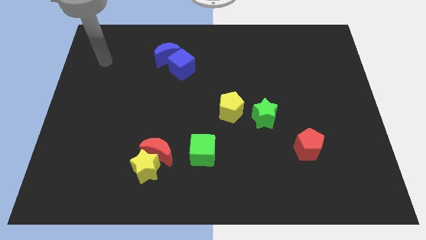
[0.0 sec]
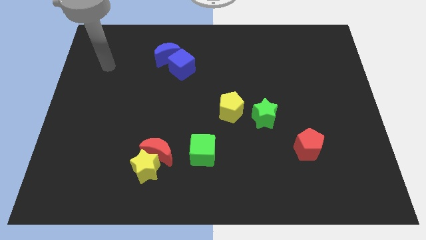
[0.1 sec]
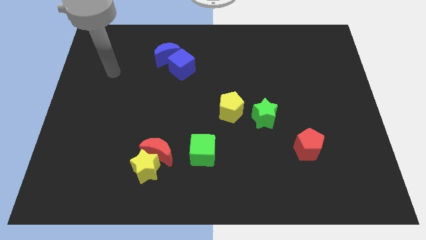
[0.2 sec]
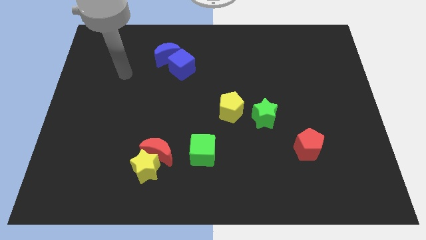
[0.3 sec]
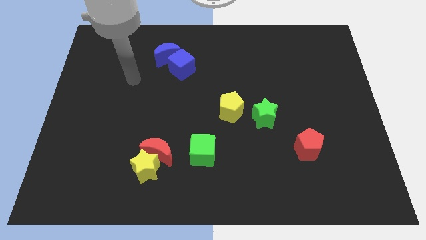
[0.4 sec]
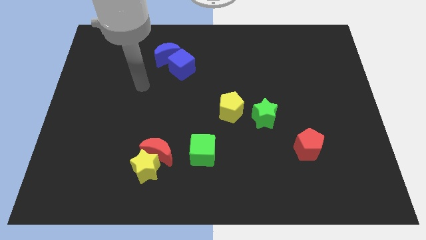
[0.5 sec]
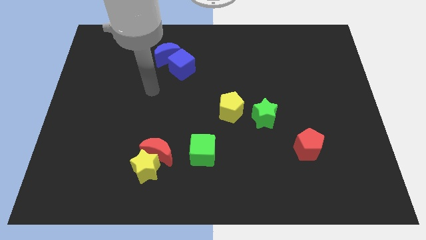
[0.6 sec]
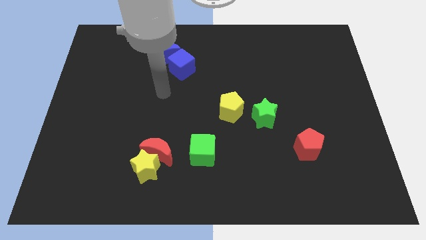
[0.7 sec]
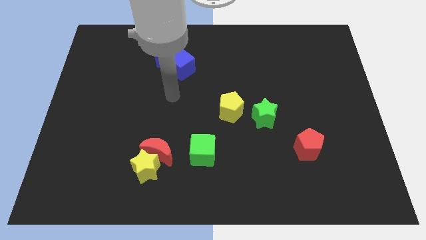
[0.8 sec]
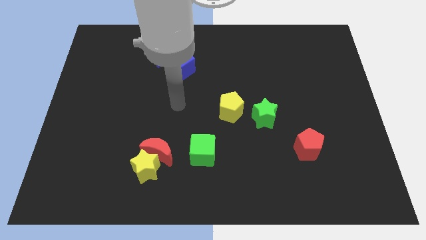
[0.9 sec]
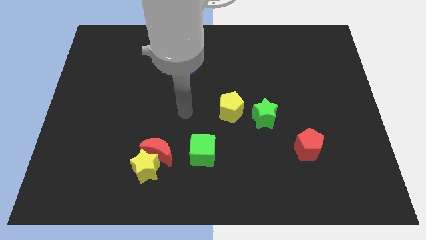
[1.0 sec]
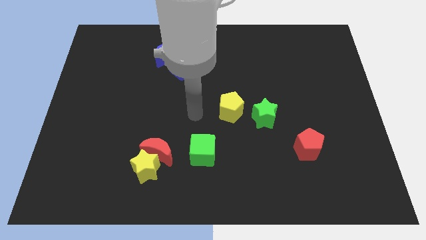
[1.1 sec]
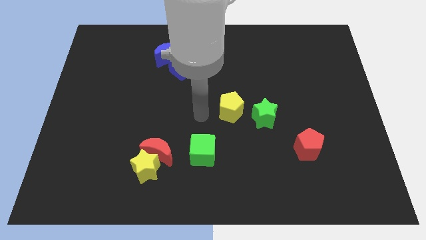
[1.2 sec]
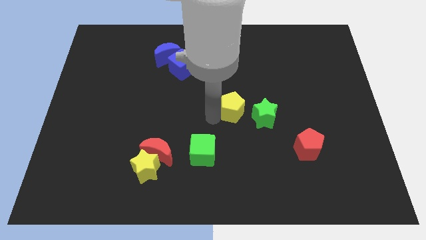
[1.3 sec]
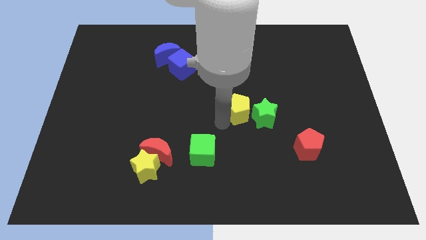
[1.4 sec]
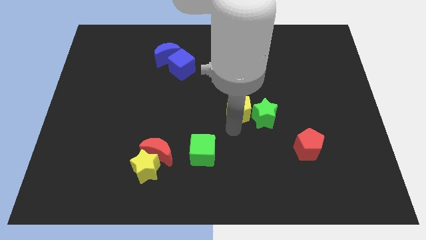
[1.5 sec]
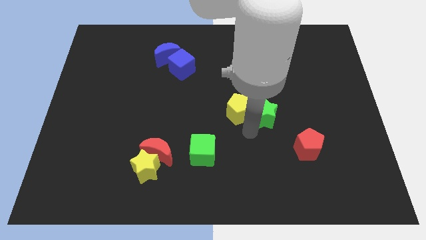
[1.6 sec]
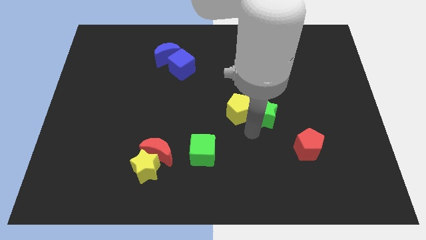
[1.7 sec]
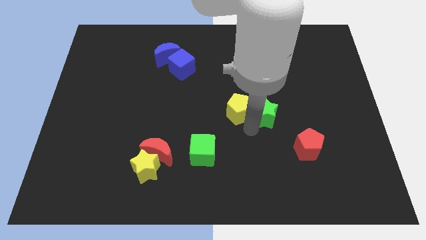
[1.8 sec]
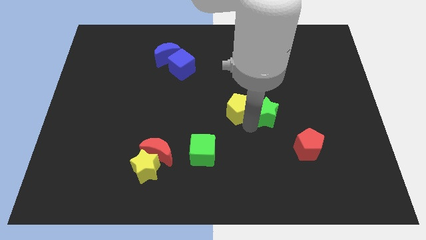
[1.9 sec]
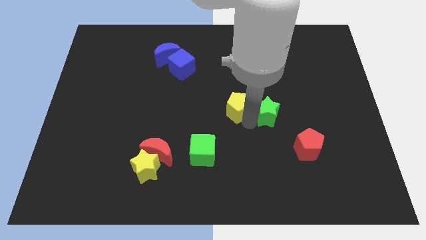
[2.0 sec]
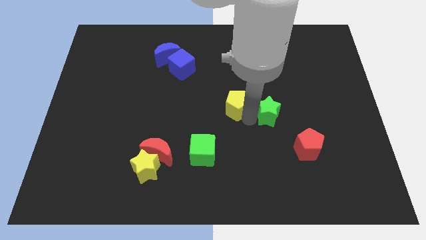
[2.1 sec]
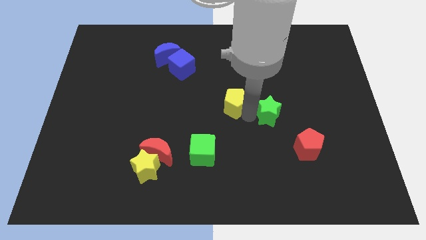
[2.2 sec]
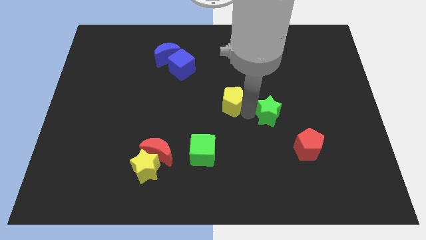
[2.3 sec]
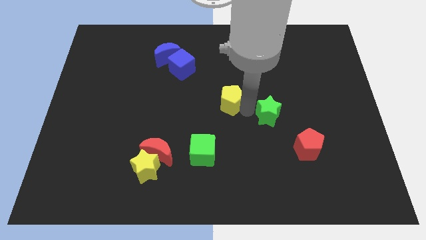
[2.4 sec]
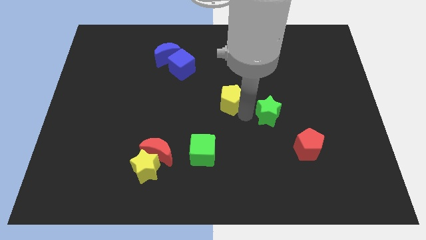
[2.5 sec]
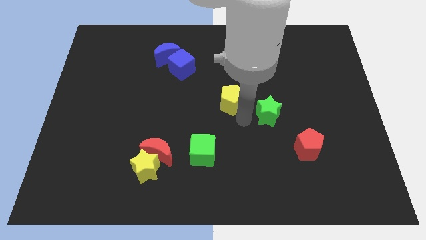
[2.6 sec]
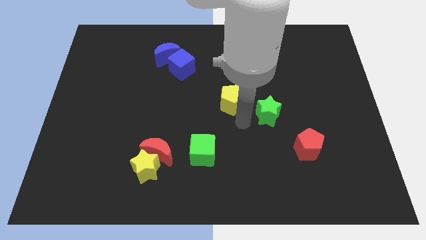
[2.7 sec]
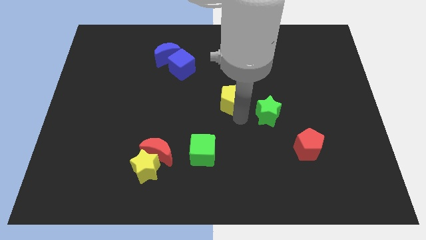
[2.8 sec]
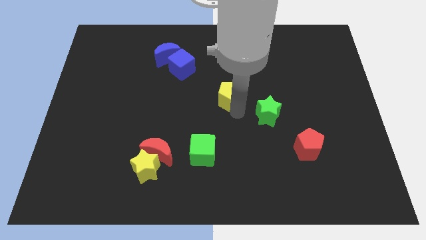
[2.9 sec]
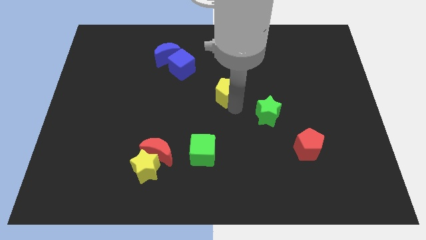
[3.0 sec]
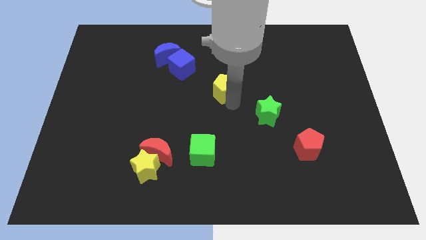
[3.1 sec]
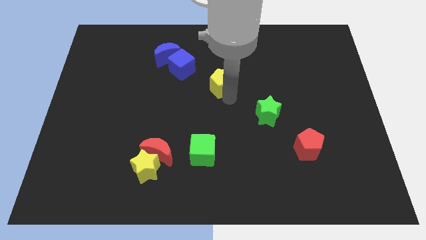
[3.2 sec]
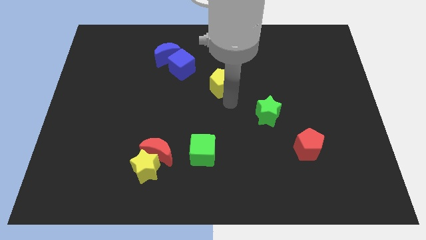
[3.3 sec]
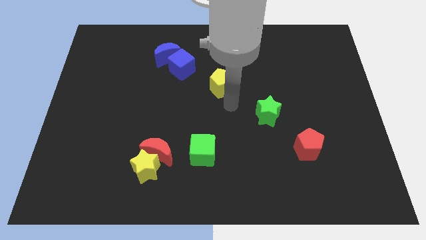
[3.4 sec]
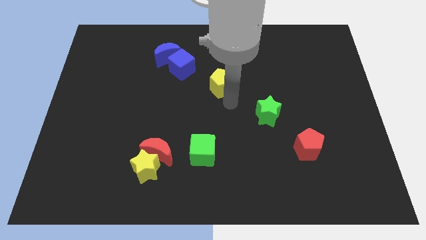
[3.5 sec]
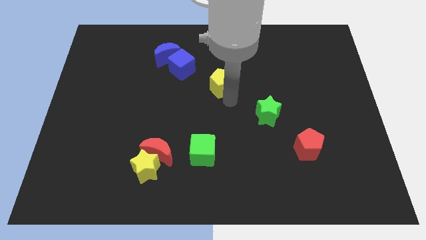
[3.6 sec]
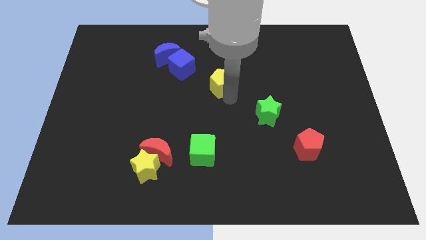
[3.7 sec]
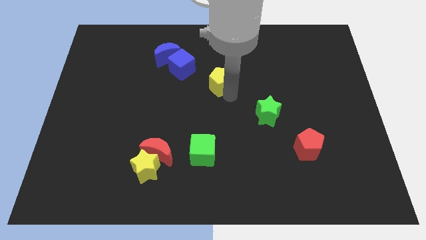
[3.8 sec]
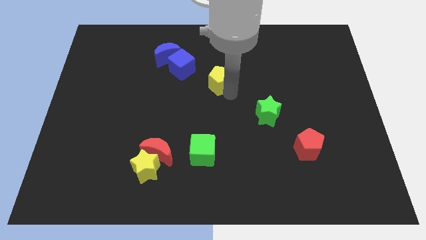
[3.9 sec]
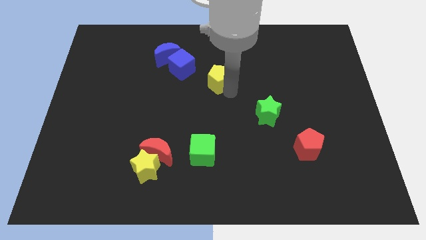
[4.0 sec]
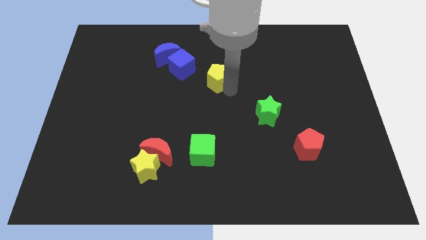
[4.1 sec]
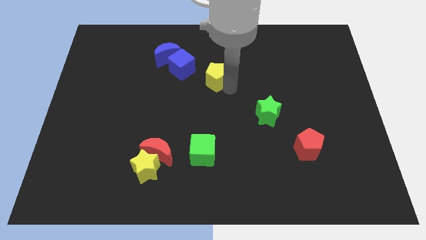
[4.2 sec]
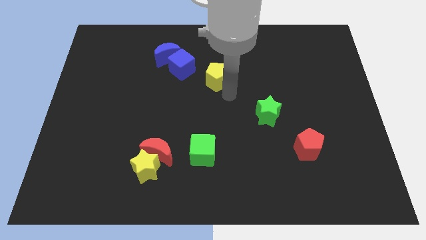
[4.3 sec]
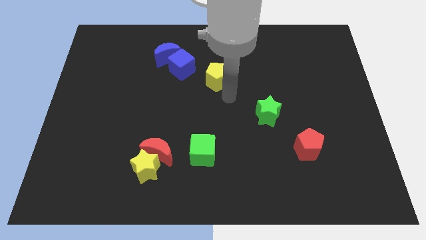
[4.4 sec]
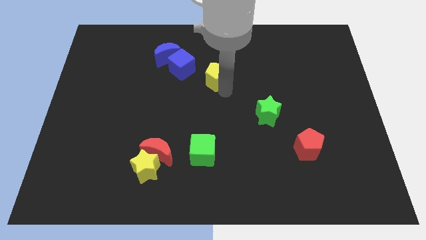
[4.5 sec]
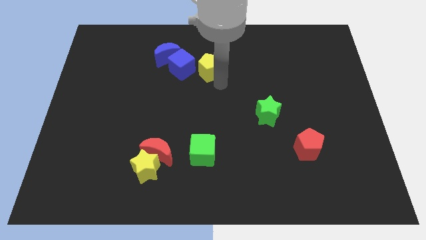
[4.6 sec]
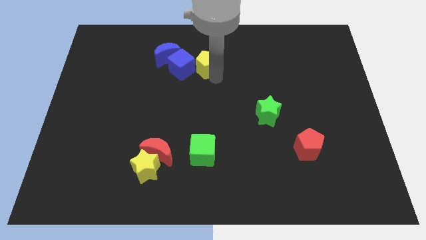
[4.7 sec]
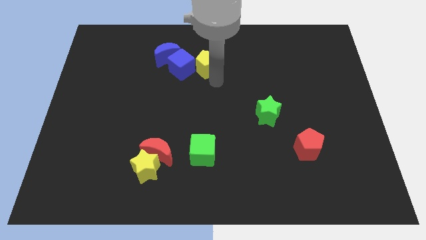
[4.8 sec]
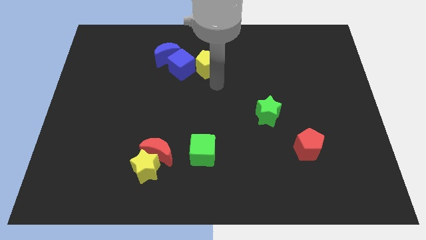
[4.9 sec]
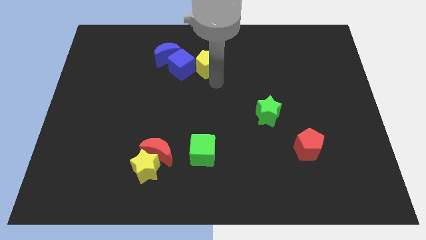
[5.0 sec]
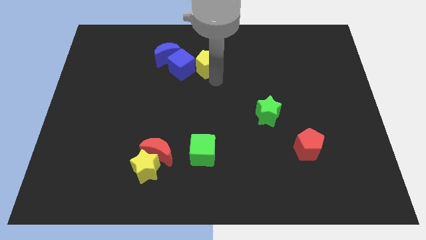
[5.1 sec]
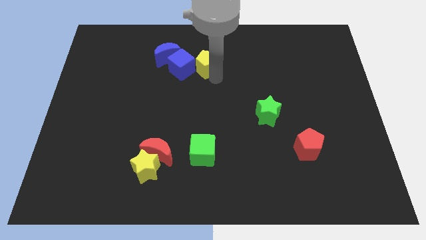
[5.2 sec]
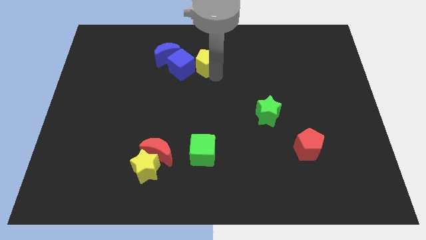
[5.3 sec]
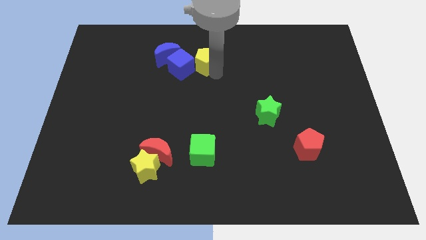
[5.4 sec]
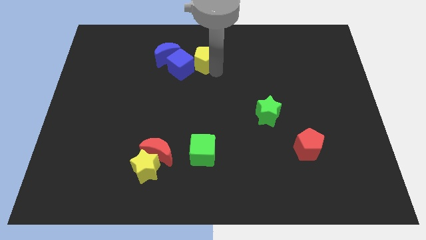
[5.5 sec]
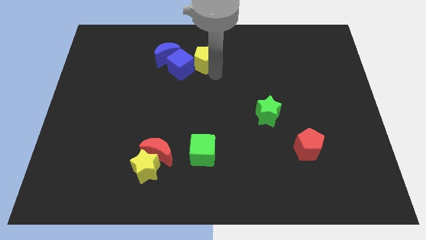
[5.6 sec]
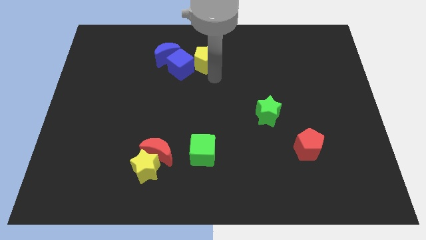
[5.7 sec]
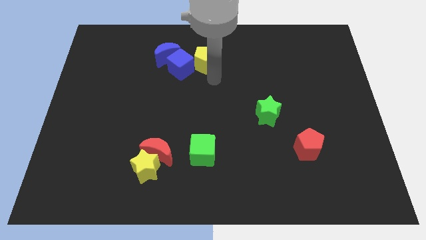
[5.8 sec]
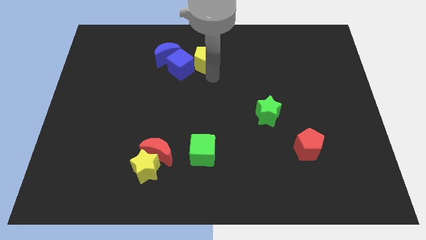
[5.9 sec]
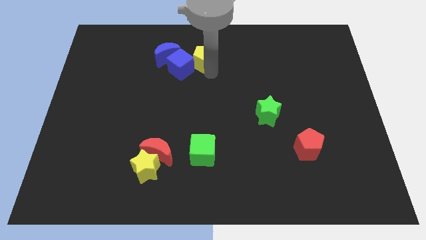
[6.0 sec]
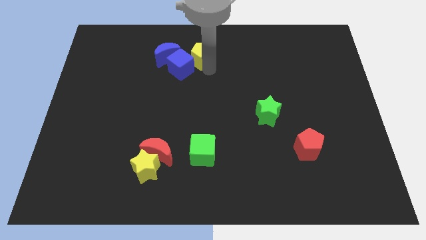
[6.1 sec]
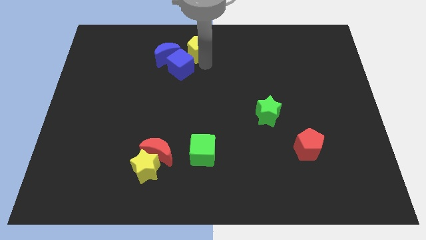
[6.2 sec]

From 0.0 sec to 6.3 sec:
slide the yellow pentagon to the top
